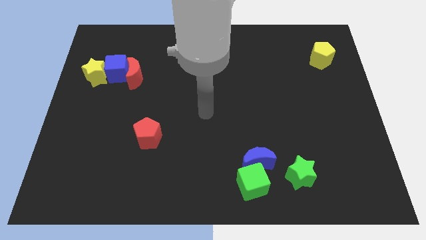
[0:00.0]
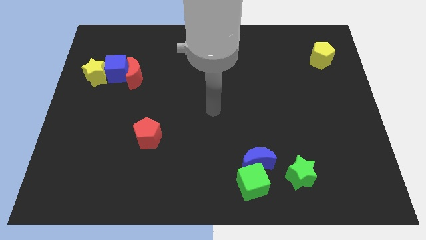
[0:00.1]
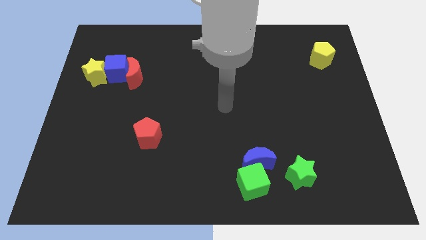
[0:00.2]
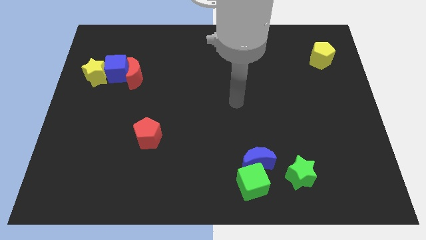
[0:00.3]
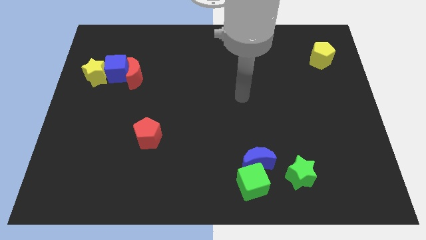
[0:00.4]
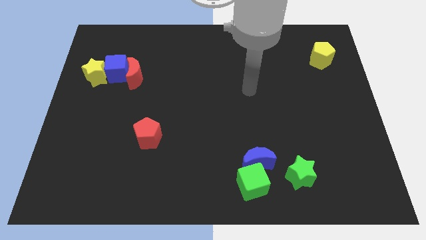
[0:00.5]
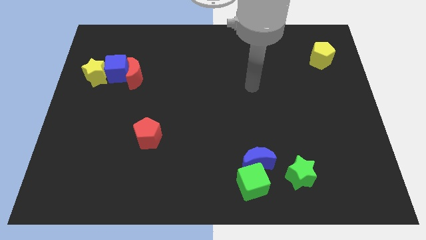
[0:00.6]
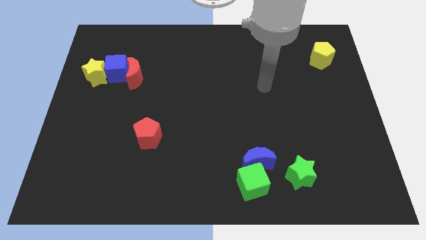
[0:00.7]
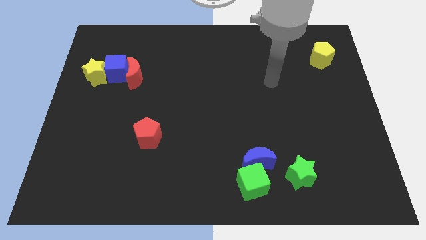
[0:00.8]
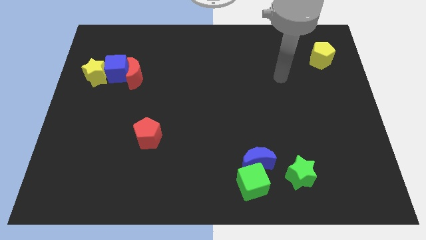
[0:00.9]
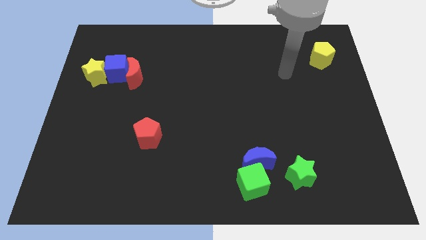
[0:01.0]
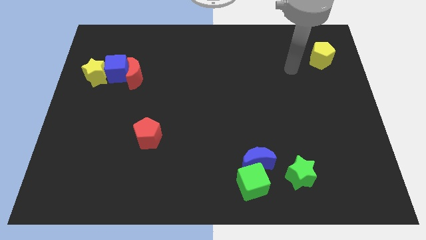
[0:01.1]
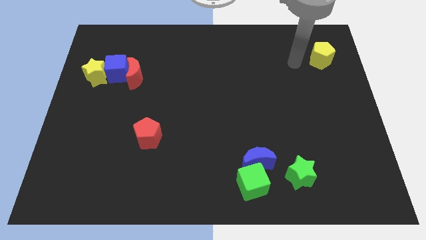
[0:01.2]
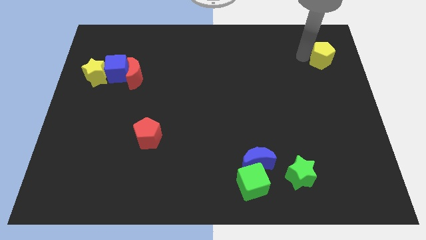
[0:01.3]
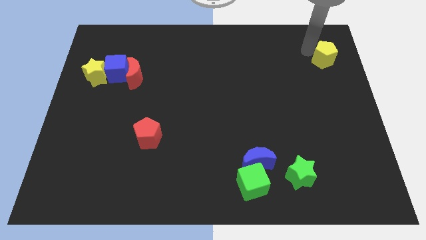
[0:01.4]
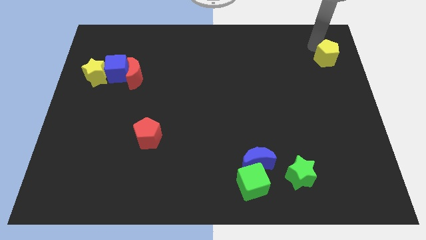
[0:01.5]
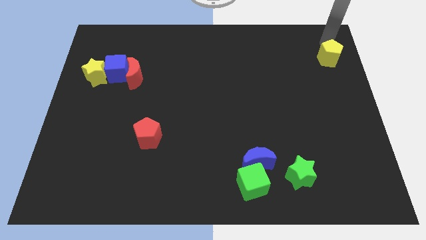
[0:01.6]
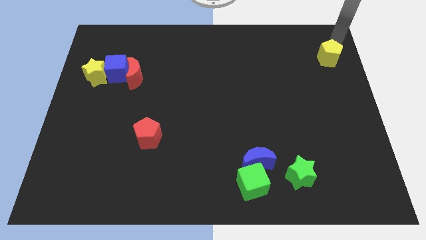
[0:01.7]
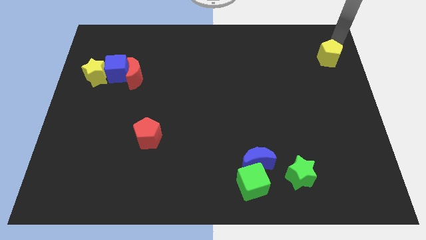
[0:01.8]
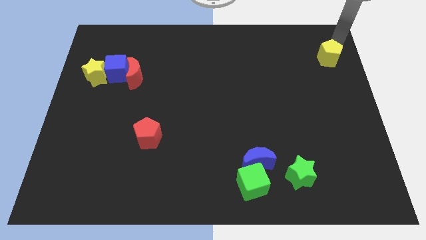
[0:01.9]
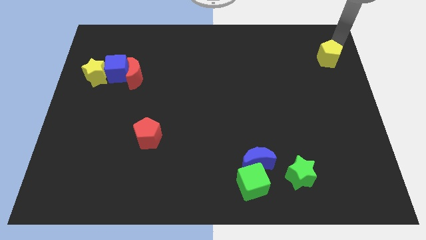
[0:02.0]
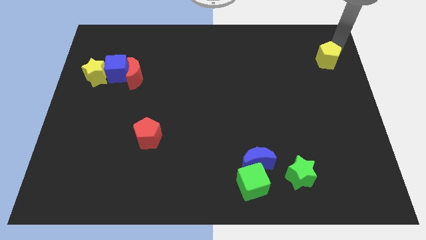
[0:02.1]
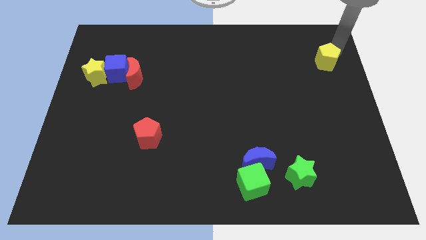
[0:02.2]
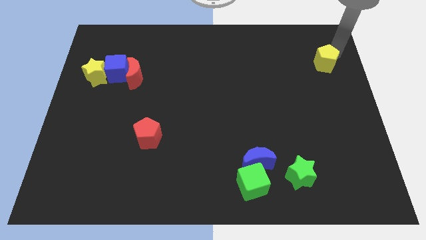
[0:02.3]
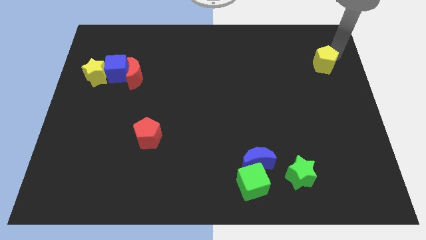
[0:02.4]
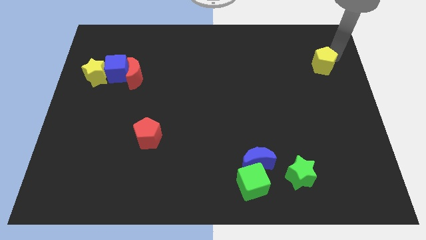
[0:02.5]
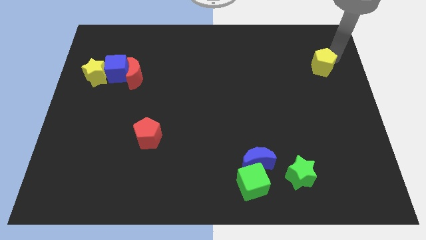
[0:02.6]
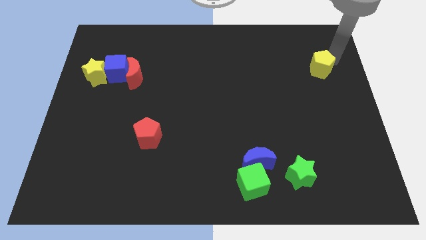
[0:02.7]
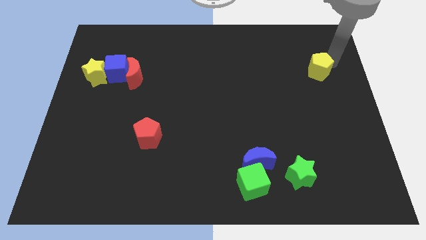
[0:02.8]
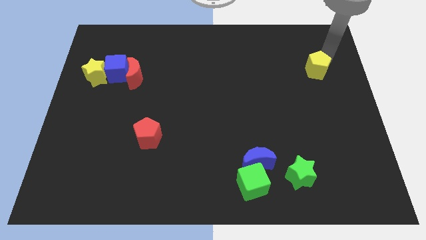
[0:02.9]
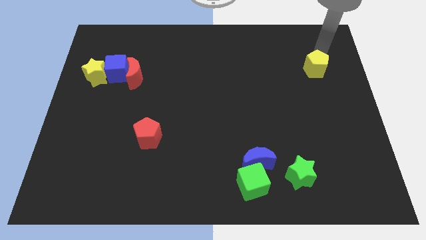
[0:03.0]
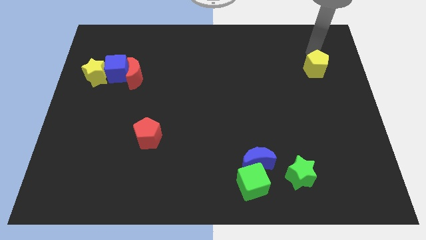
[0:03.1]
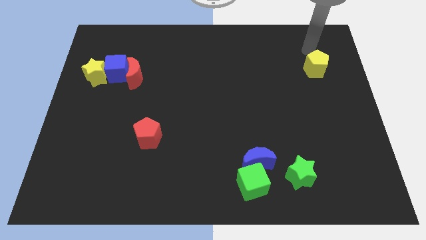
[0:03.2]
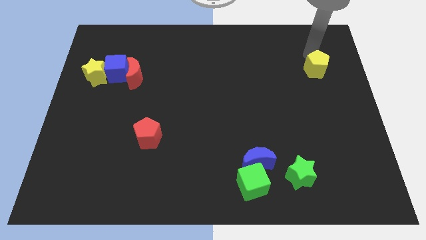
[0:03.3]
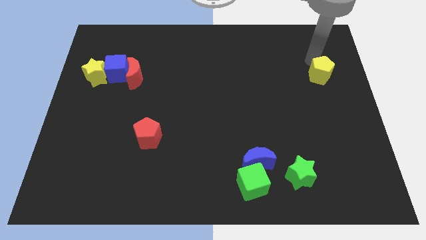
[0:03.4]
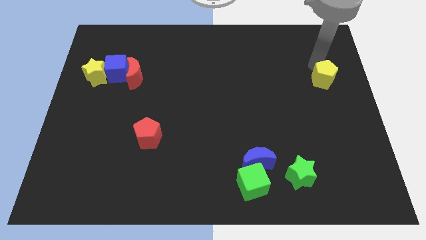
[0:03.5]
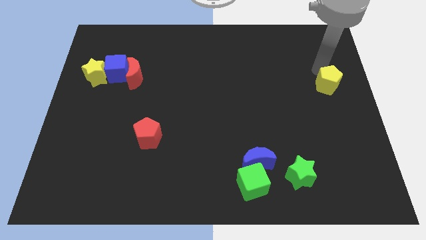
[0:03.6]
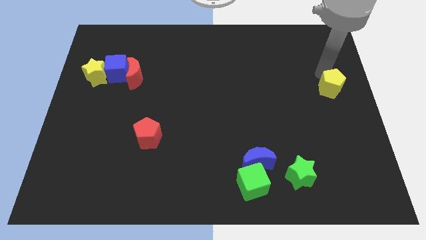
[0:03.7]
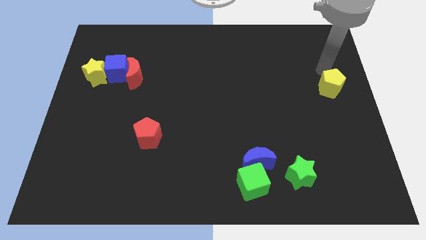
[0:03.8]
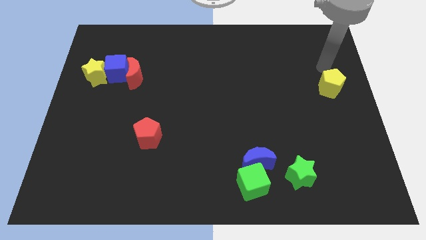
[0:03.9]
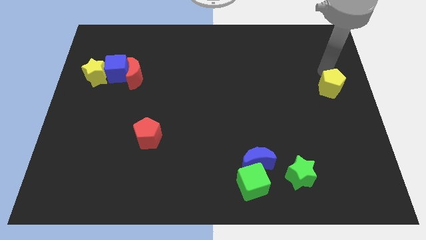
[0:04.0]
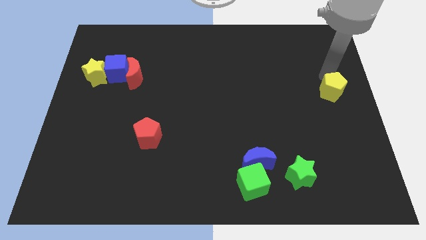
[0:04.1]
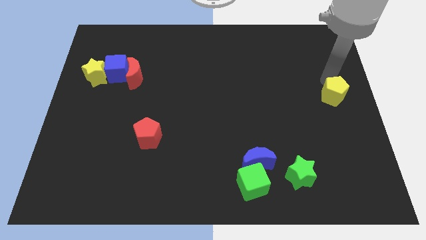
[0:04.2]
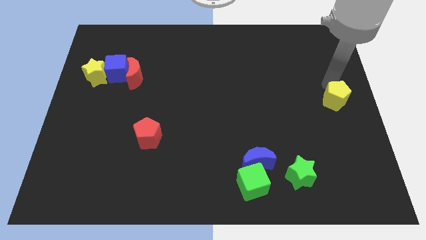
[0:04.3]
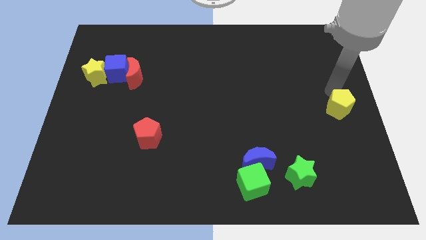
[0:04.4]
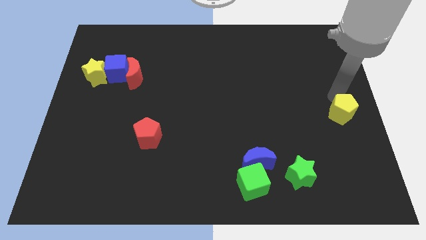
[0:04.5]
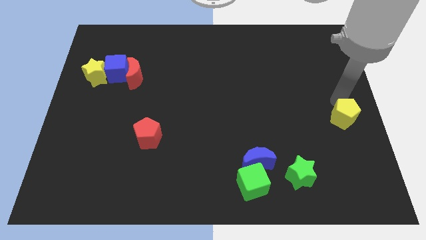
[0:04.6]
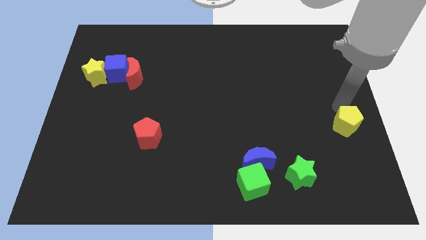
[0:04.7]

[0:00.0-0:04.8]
slide the yellow pentagon downwards

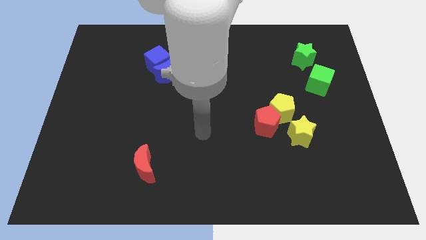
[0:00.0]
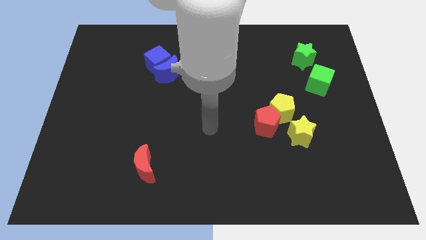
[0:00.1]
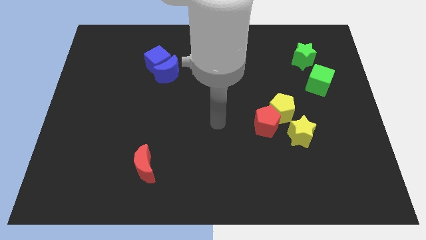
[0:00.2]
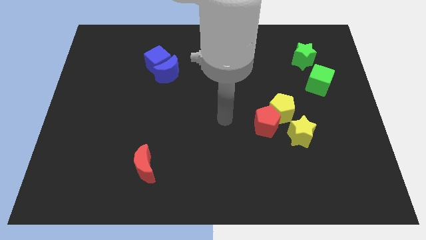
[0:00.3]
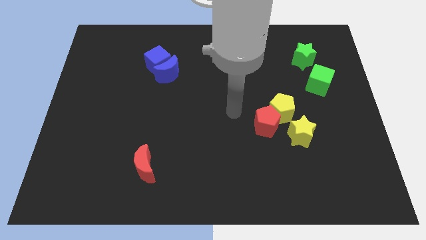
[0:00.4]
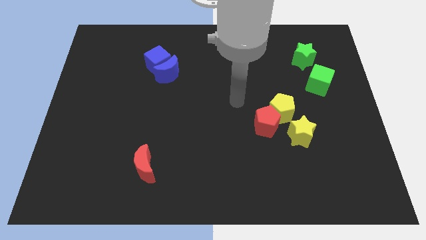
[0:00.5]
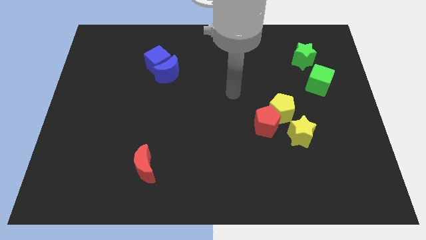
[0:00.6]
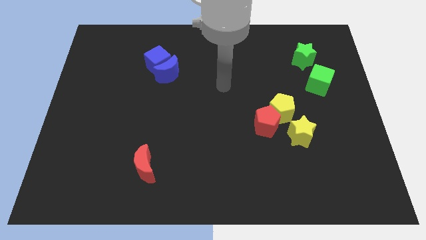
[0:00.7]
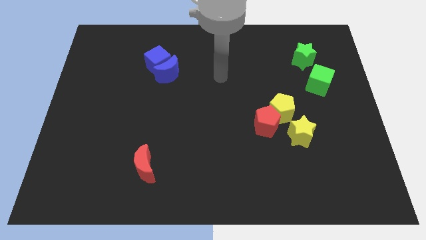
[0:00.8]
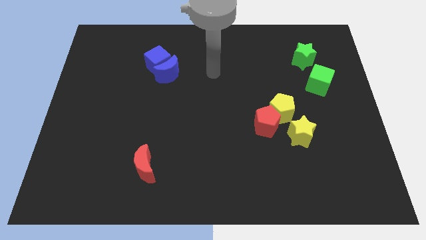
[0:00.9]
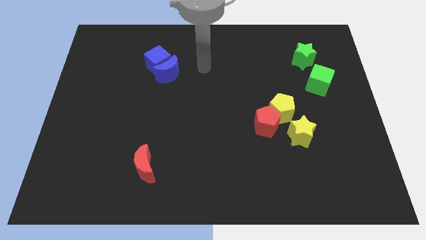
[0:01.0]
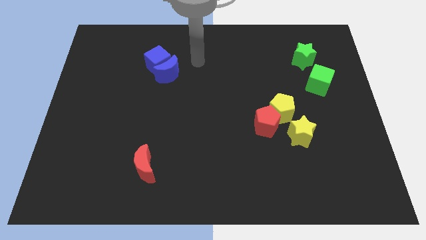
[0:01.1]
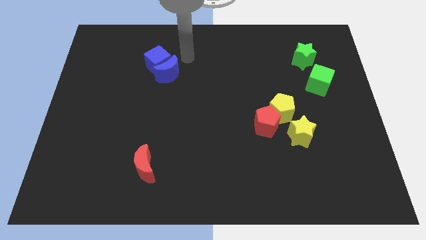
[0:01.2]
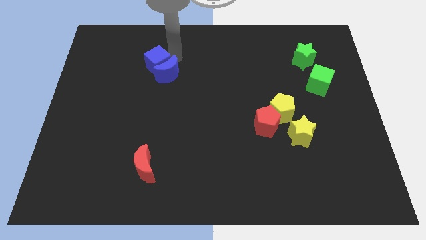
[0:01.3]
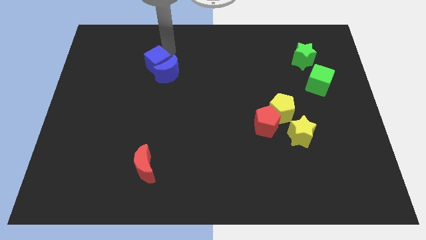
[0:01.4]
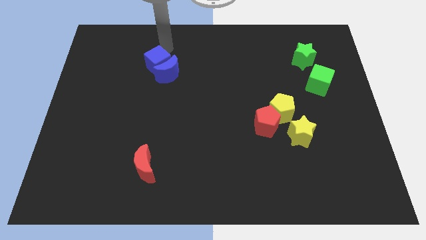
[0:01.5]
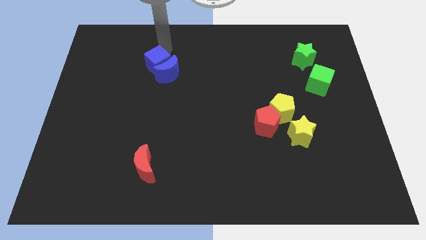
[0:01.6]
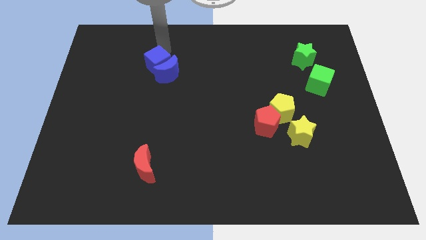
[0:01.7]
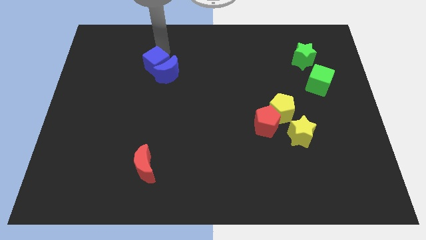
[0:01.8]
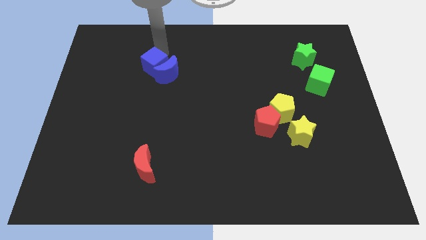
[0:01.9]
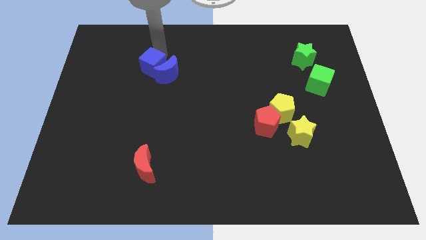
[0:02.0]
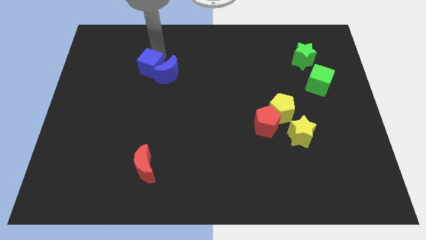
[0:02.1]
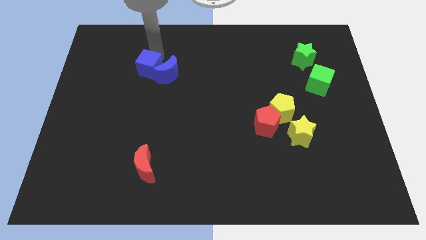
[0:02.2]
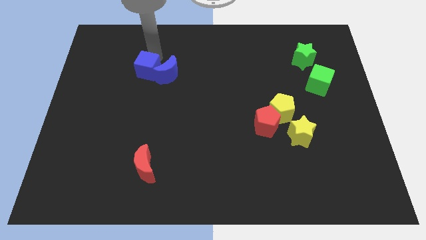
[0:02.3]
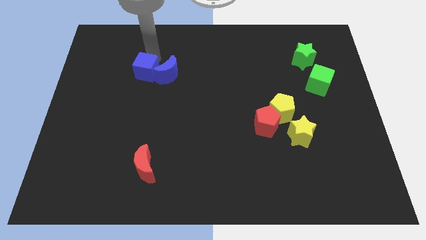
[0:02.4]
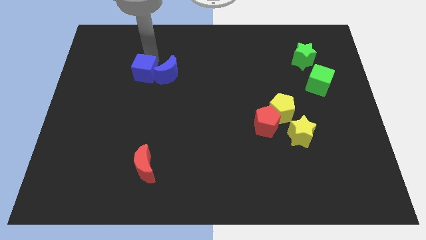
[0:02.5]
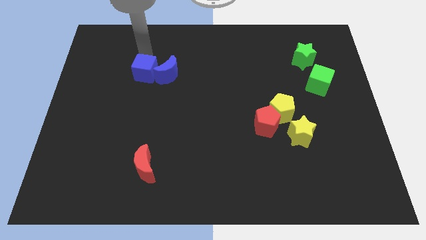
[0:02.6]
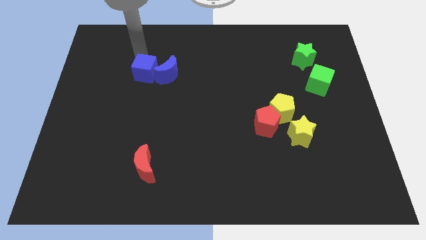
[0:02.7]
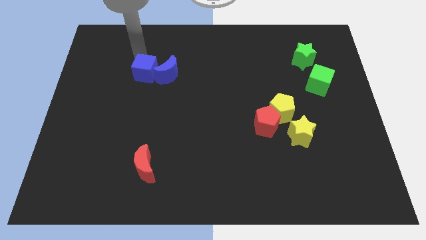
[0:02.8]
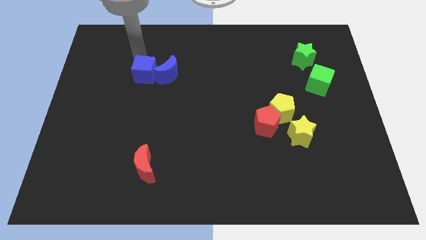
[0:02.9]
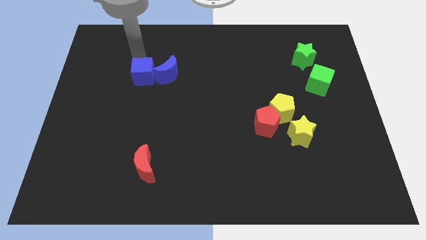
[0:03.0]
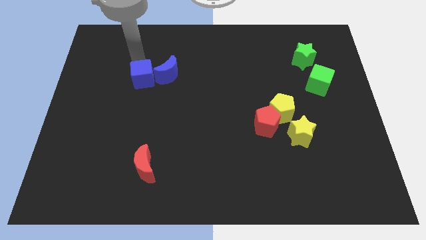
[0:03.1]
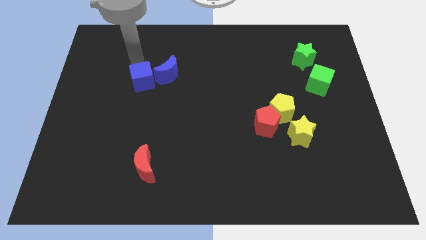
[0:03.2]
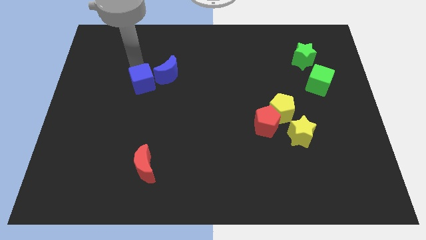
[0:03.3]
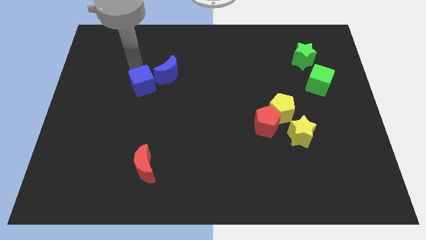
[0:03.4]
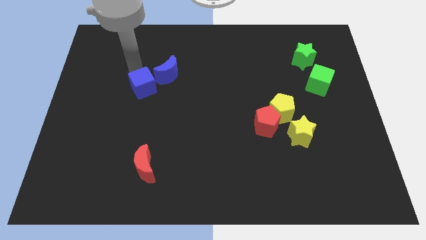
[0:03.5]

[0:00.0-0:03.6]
push the blue cube somewhat down

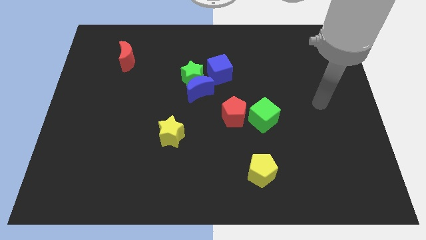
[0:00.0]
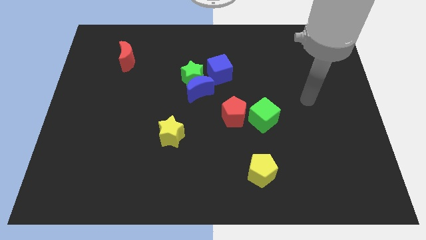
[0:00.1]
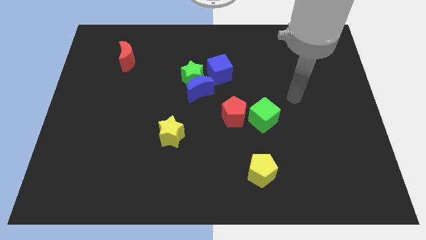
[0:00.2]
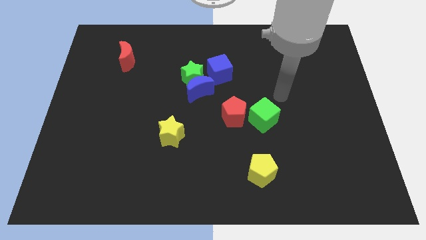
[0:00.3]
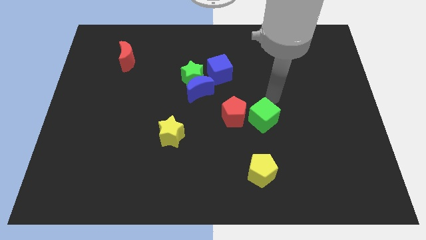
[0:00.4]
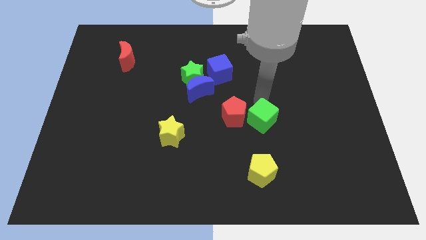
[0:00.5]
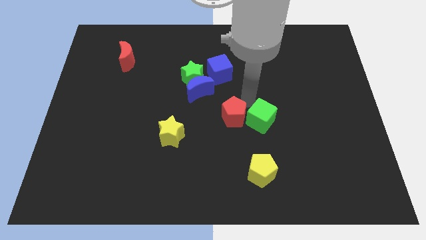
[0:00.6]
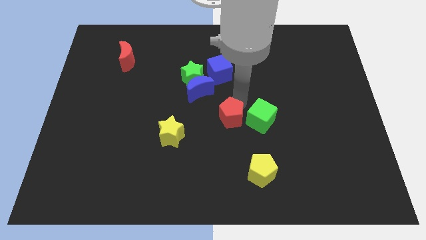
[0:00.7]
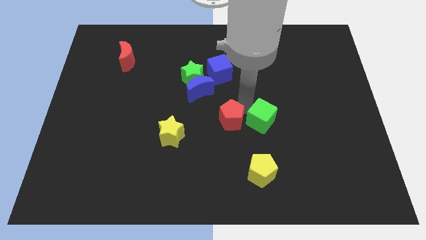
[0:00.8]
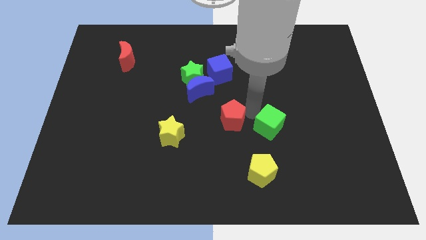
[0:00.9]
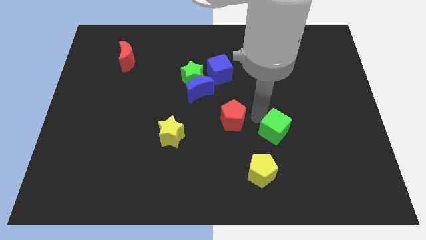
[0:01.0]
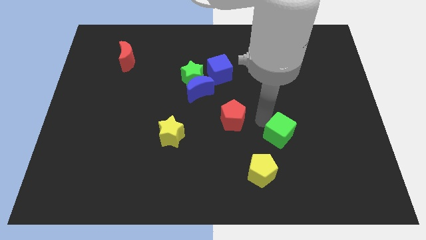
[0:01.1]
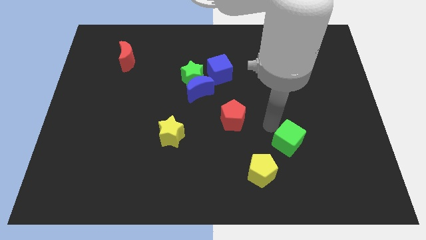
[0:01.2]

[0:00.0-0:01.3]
slightly move the green cube downwards and right
